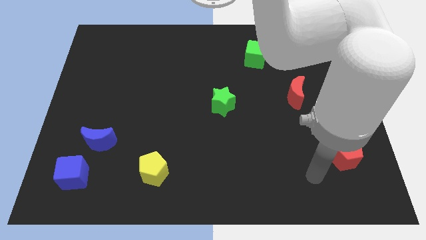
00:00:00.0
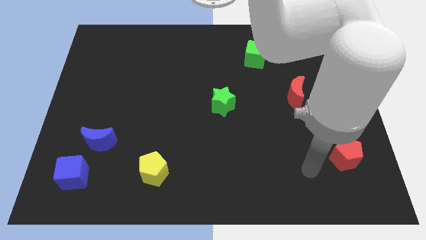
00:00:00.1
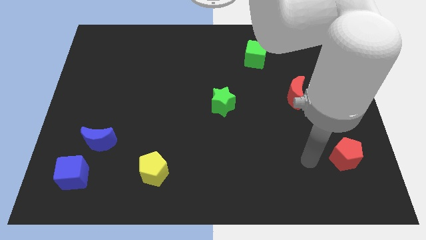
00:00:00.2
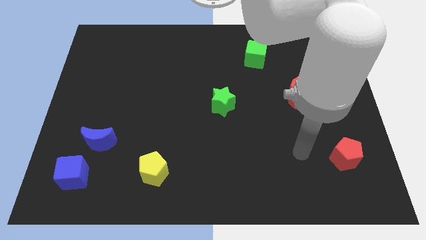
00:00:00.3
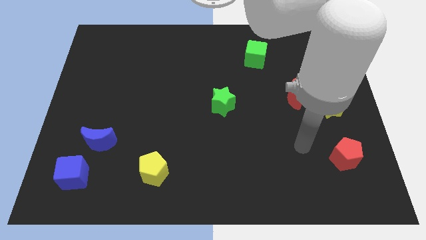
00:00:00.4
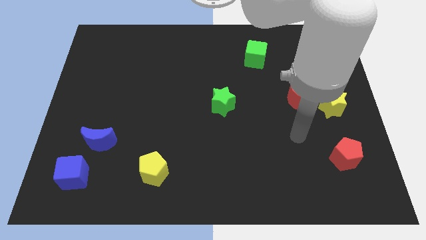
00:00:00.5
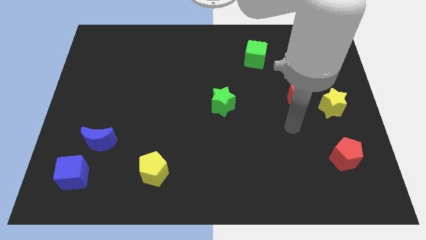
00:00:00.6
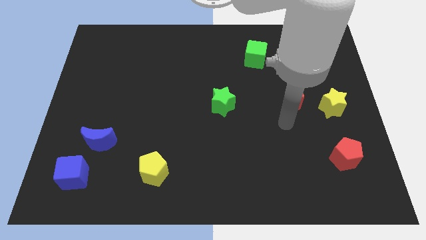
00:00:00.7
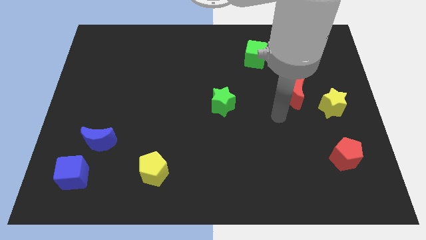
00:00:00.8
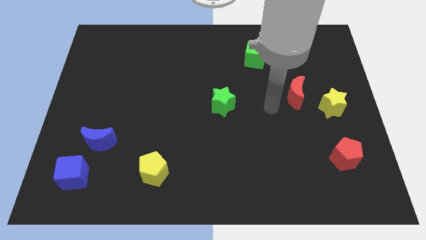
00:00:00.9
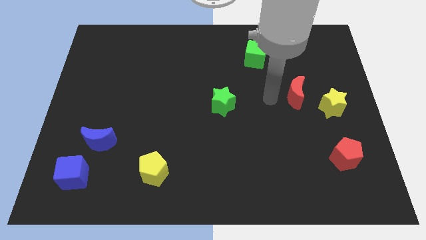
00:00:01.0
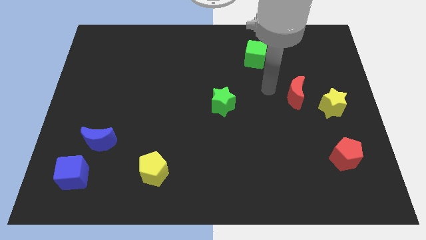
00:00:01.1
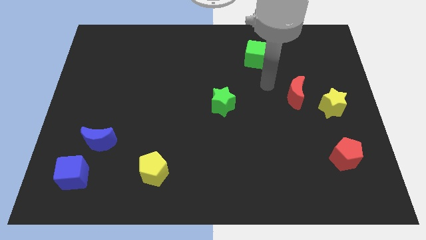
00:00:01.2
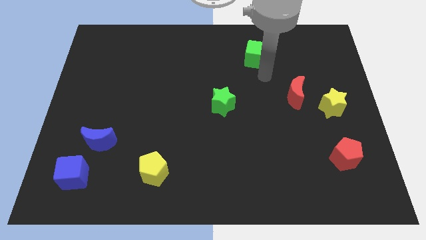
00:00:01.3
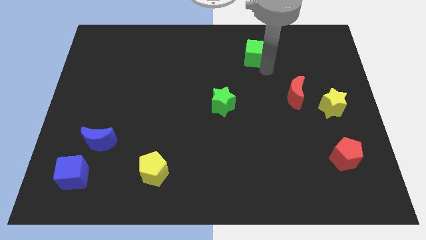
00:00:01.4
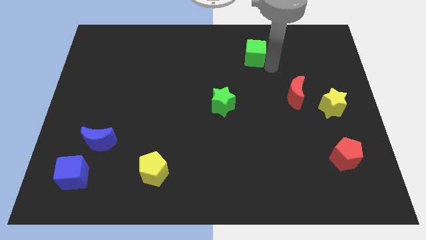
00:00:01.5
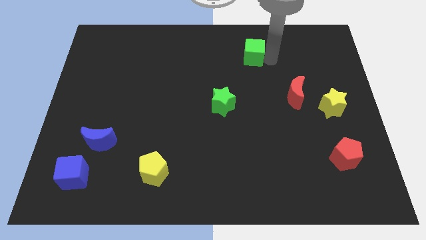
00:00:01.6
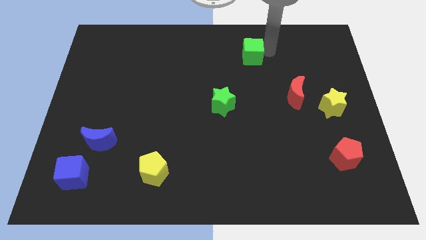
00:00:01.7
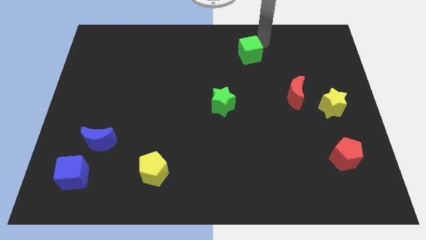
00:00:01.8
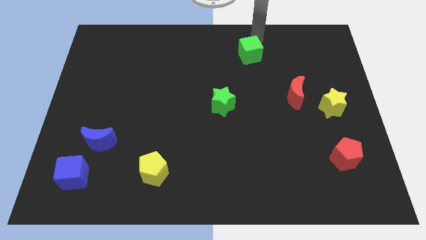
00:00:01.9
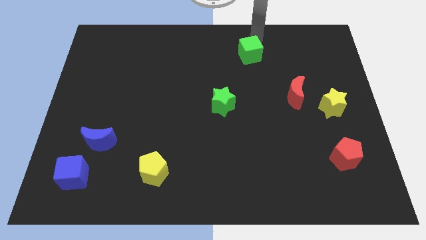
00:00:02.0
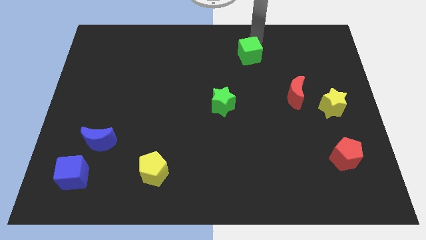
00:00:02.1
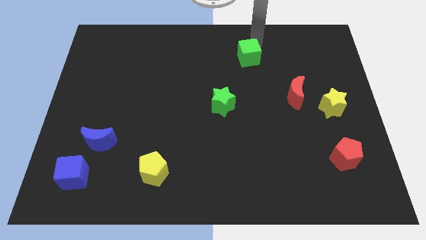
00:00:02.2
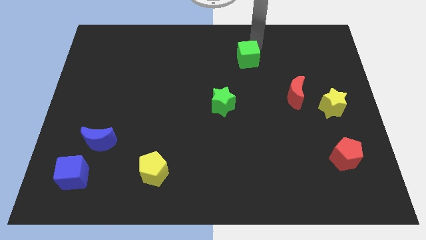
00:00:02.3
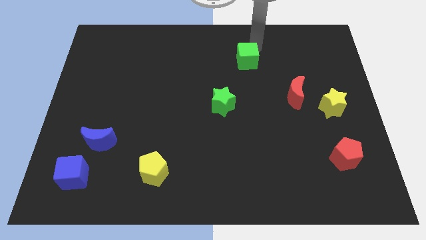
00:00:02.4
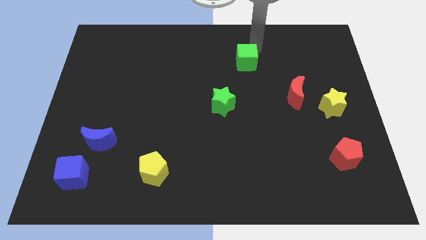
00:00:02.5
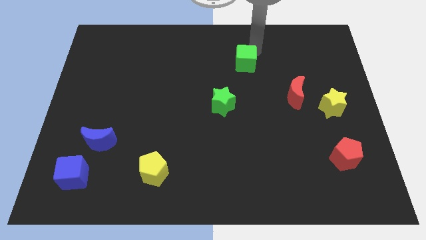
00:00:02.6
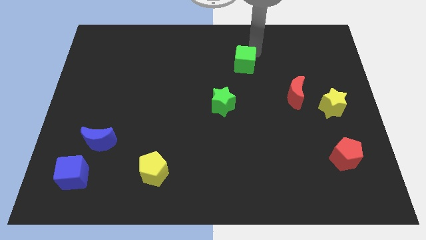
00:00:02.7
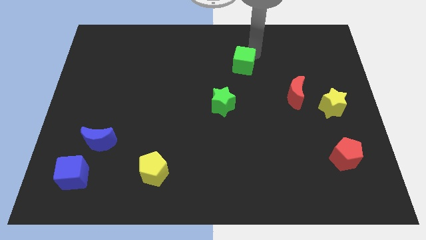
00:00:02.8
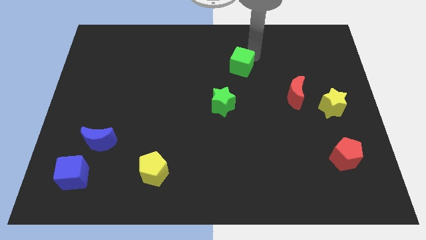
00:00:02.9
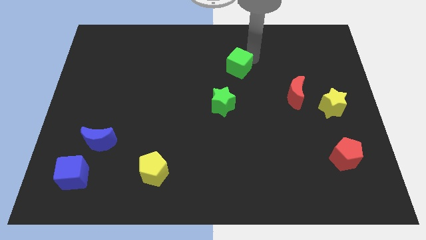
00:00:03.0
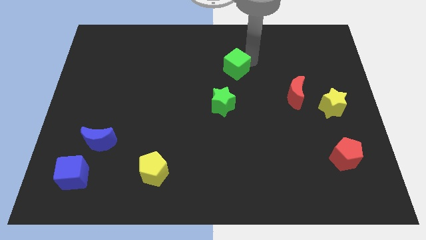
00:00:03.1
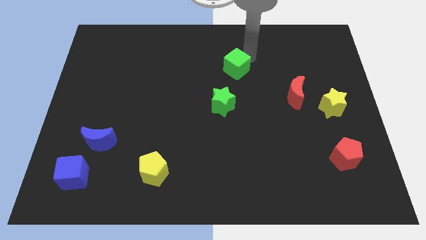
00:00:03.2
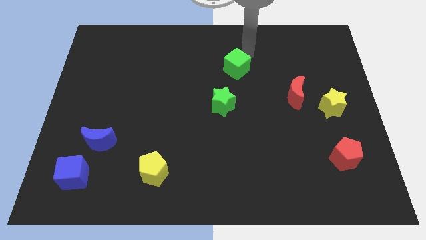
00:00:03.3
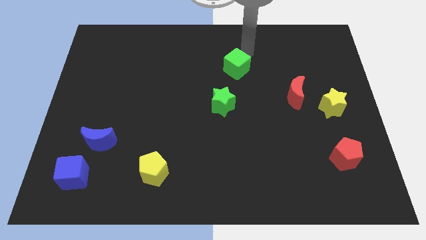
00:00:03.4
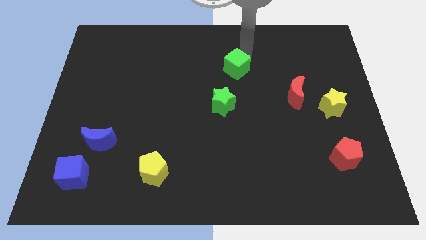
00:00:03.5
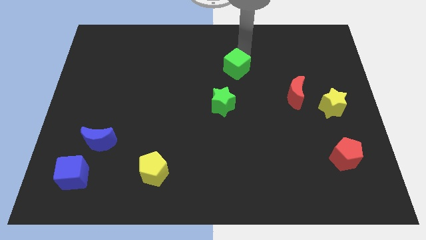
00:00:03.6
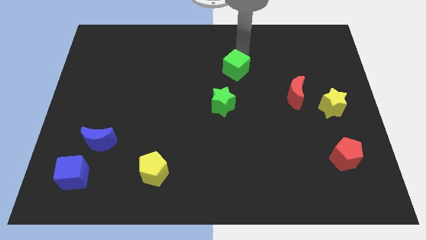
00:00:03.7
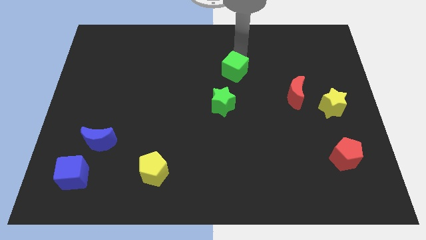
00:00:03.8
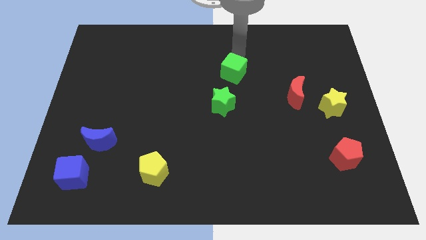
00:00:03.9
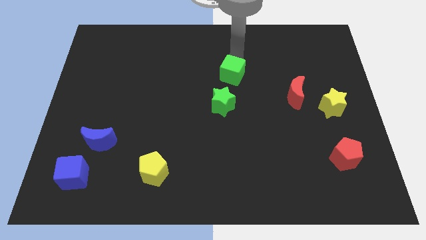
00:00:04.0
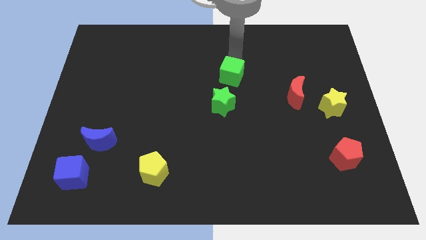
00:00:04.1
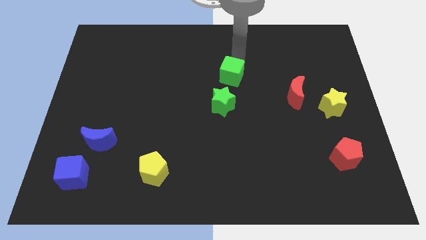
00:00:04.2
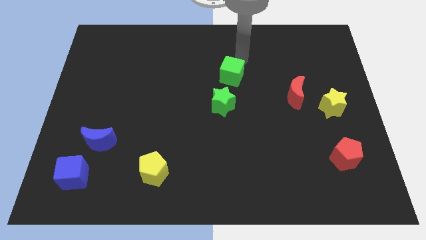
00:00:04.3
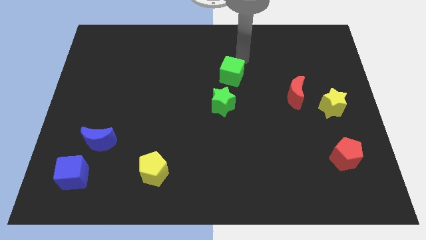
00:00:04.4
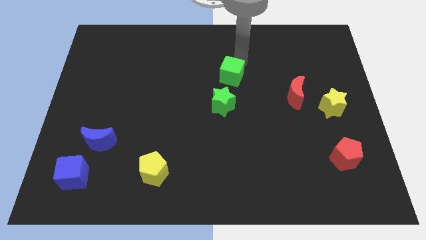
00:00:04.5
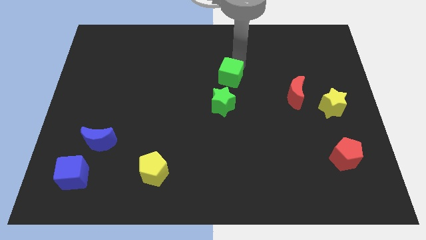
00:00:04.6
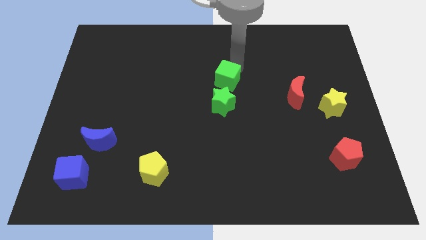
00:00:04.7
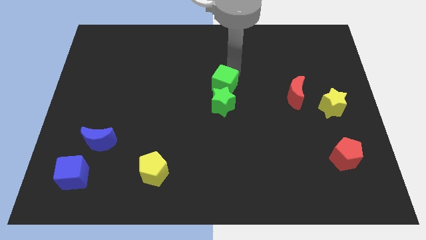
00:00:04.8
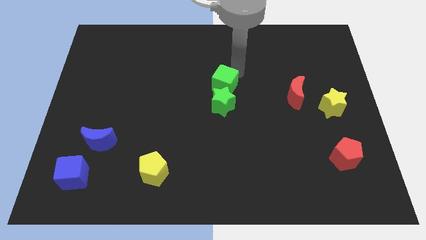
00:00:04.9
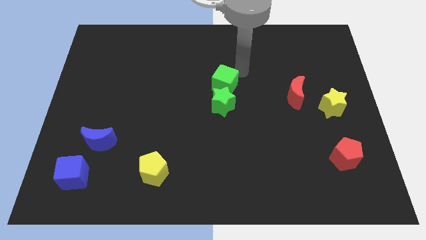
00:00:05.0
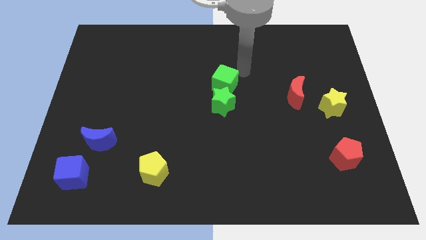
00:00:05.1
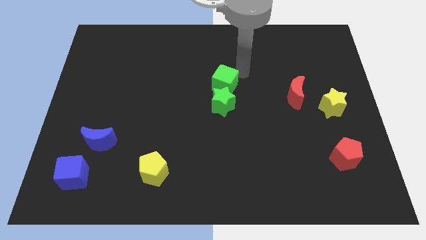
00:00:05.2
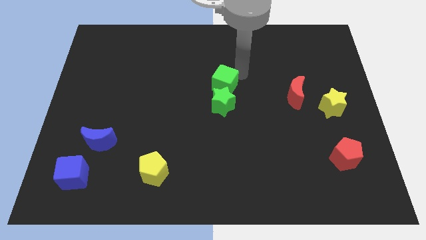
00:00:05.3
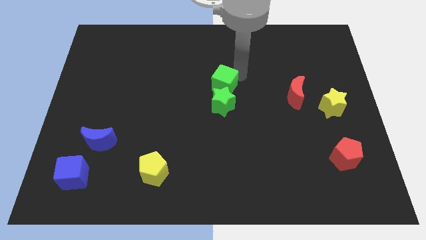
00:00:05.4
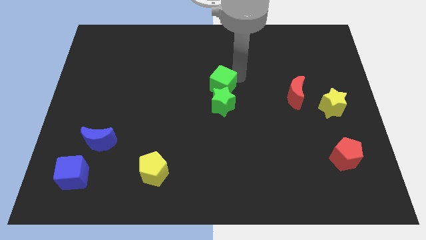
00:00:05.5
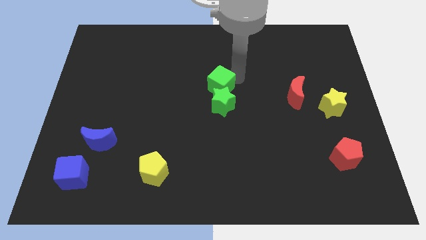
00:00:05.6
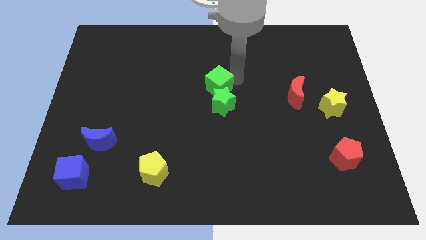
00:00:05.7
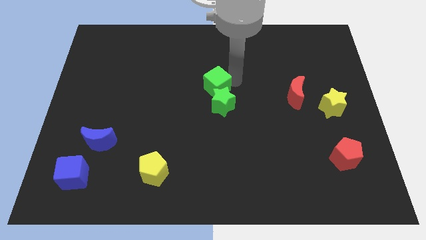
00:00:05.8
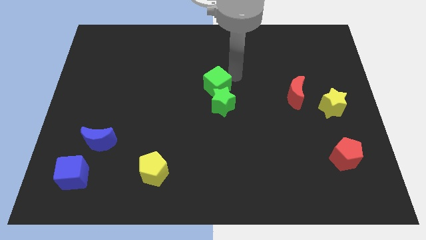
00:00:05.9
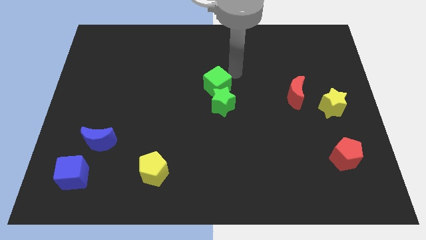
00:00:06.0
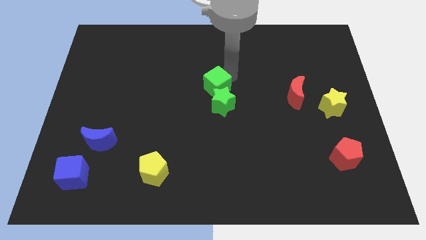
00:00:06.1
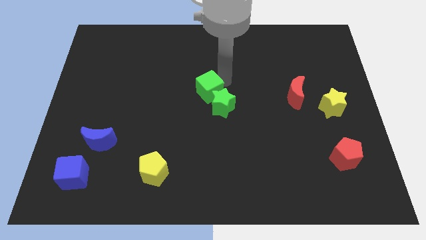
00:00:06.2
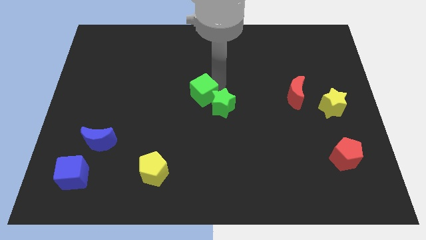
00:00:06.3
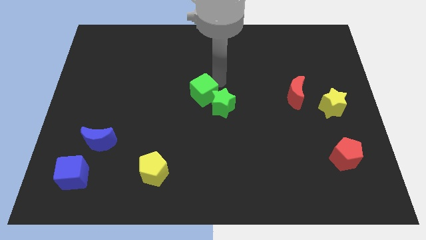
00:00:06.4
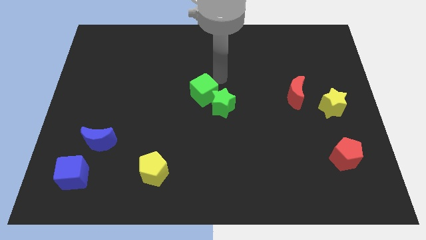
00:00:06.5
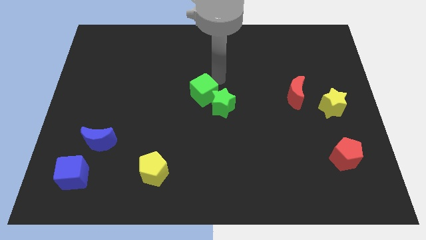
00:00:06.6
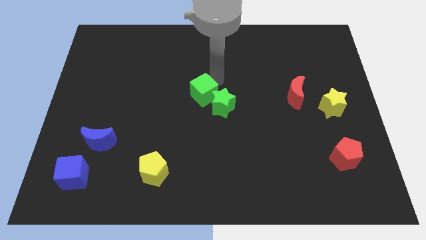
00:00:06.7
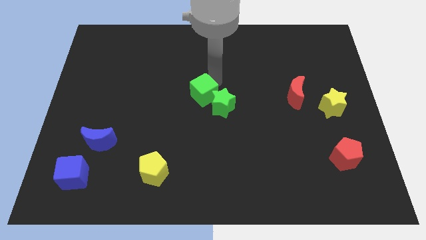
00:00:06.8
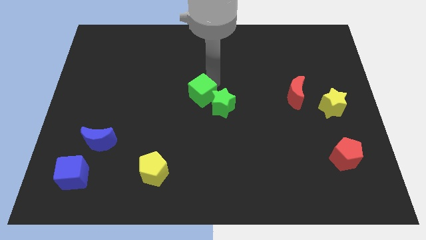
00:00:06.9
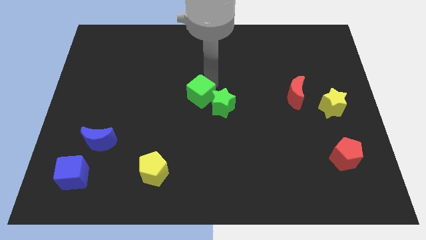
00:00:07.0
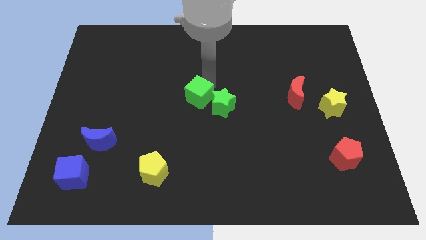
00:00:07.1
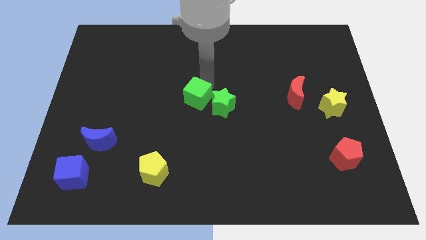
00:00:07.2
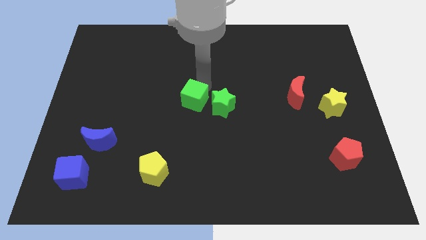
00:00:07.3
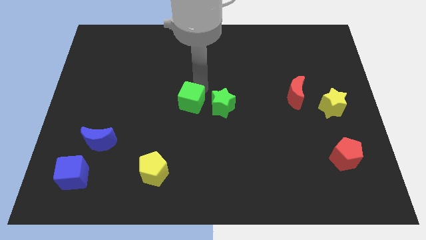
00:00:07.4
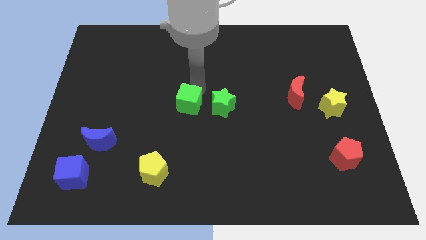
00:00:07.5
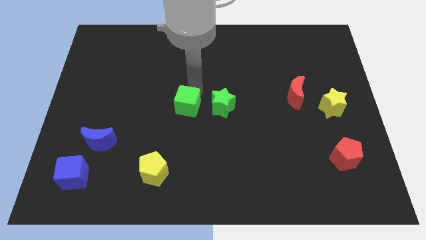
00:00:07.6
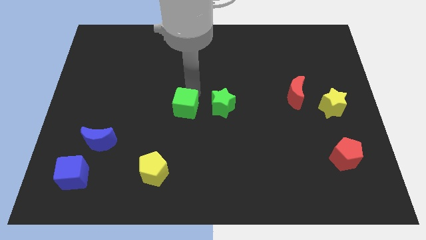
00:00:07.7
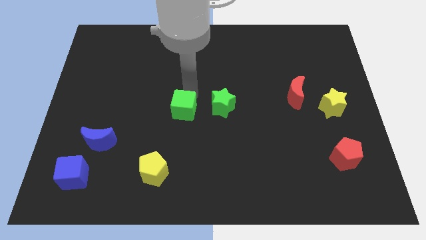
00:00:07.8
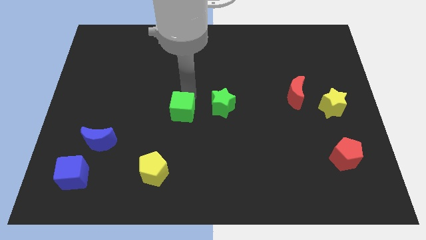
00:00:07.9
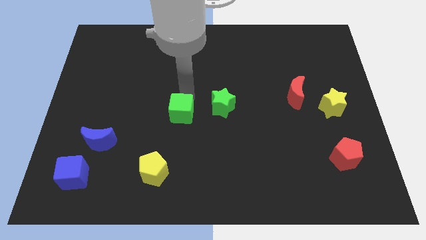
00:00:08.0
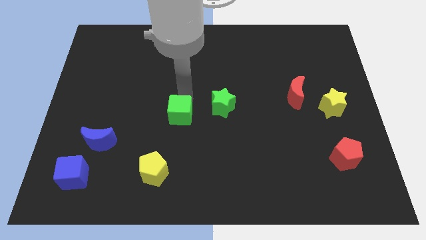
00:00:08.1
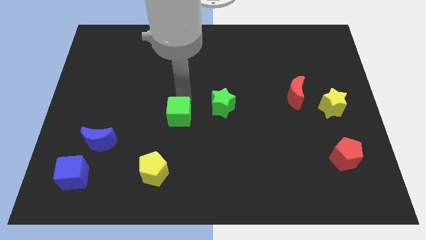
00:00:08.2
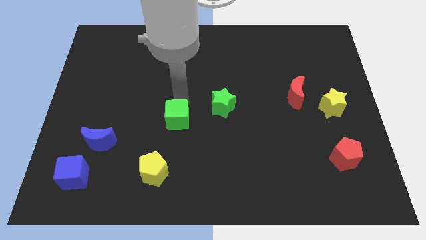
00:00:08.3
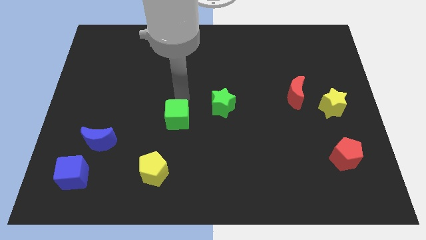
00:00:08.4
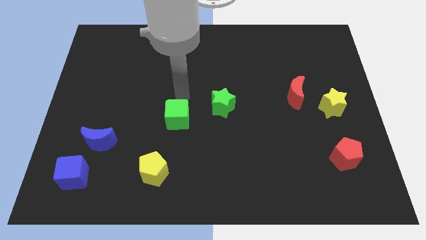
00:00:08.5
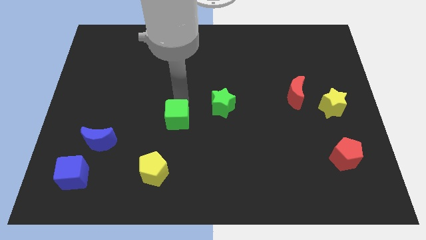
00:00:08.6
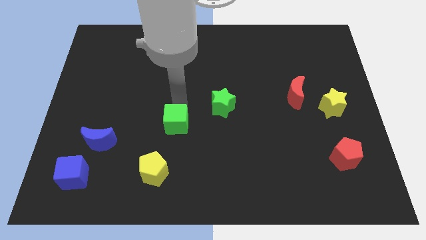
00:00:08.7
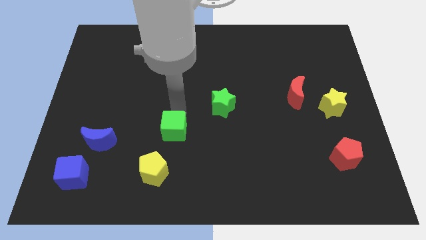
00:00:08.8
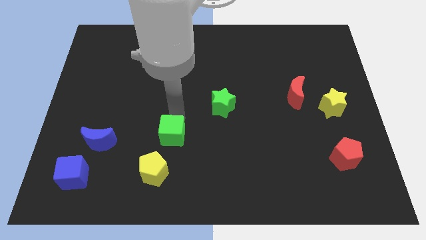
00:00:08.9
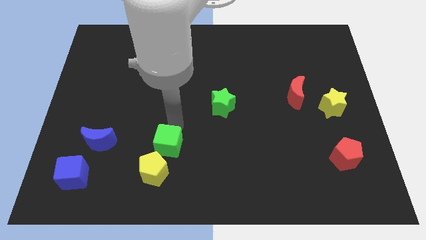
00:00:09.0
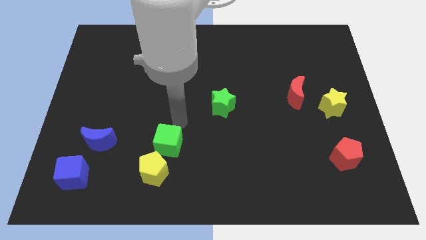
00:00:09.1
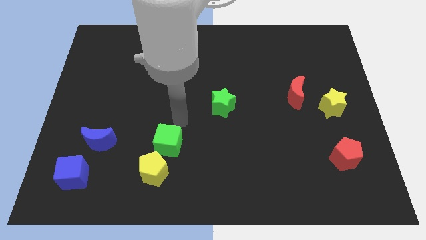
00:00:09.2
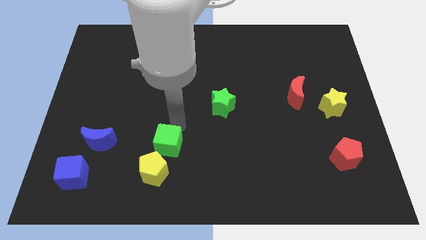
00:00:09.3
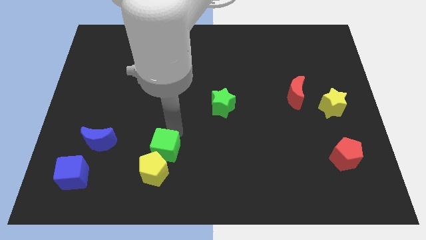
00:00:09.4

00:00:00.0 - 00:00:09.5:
slide the green cube to the yellow pentagon
